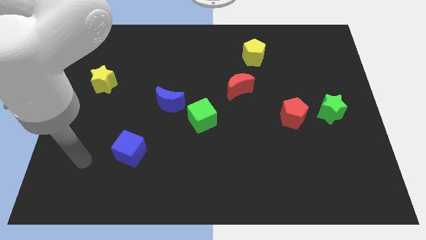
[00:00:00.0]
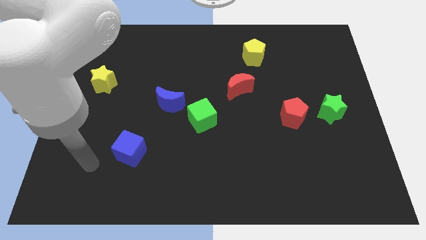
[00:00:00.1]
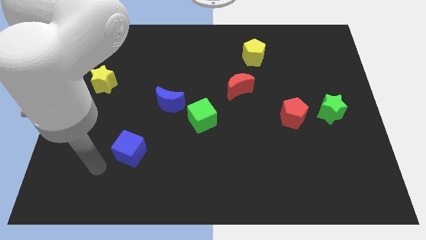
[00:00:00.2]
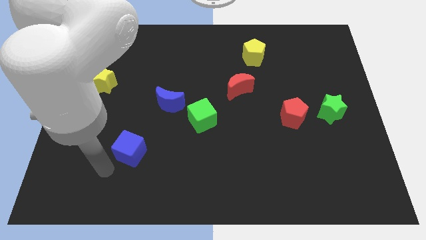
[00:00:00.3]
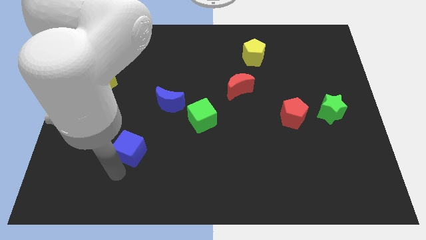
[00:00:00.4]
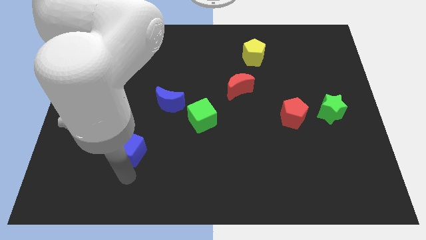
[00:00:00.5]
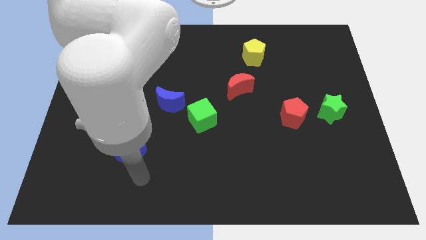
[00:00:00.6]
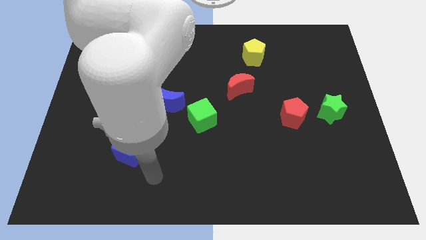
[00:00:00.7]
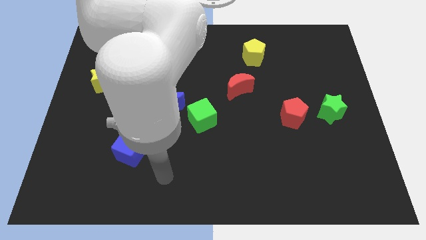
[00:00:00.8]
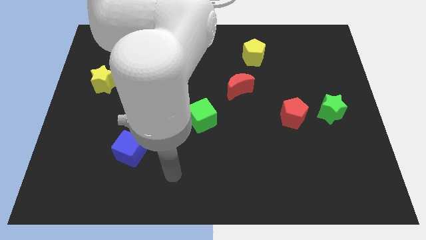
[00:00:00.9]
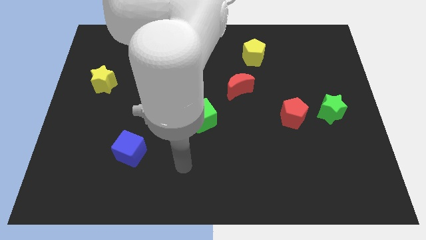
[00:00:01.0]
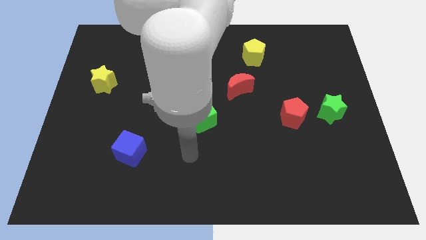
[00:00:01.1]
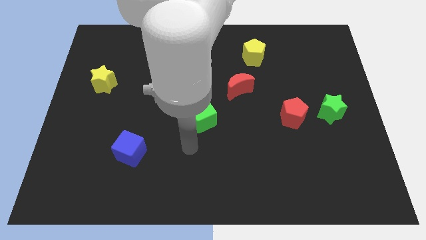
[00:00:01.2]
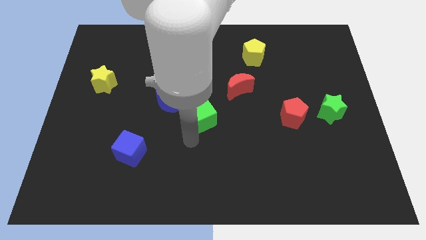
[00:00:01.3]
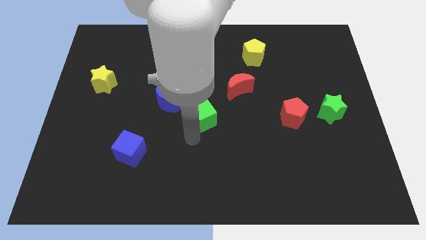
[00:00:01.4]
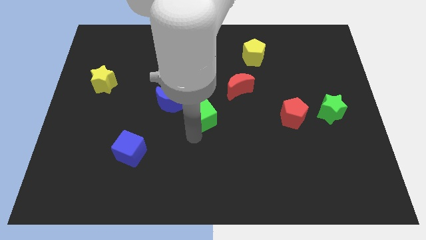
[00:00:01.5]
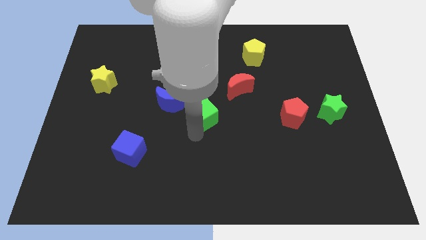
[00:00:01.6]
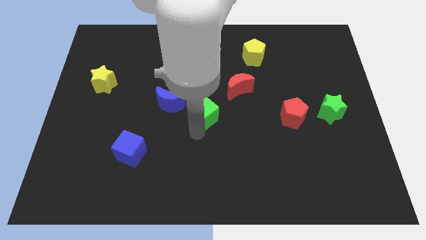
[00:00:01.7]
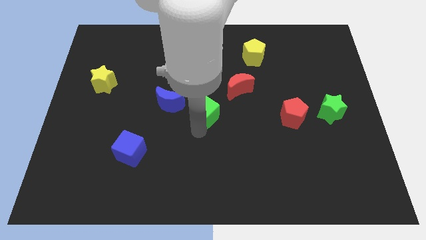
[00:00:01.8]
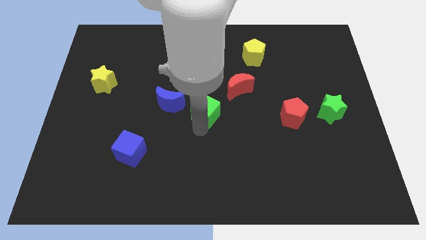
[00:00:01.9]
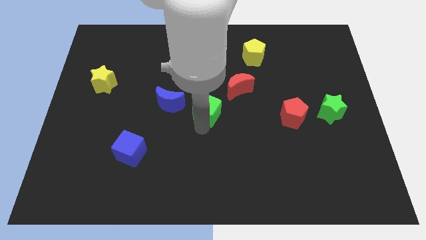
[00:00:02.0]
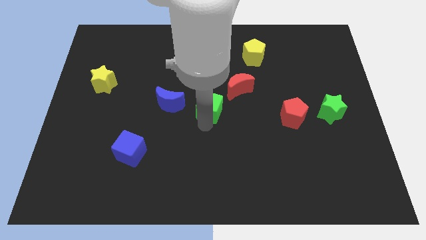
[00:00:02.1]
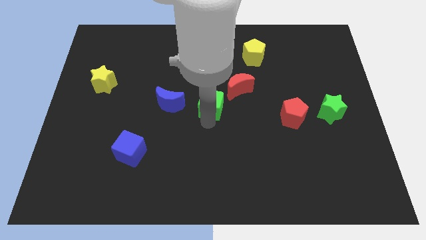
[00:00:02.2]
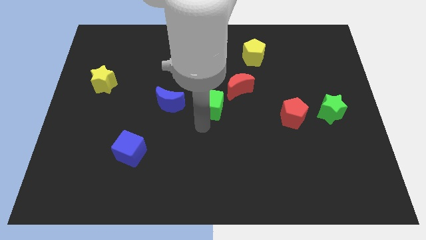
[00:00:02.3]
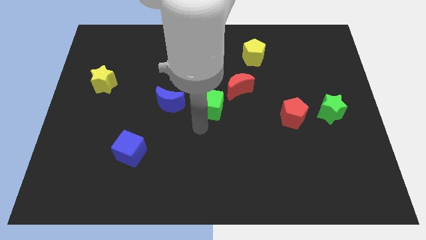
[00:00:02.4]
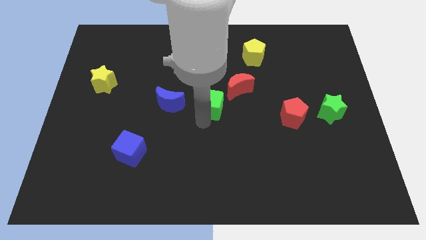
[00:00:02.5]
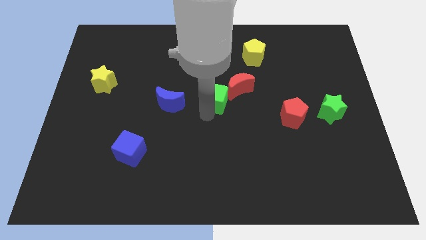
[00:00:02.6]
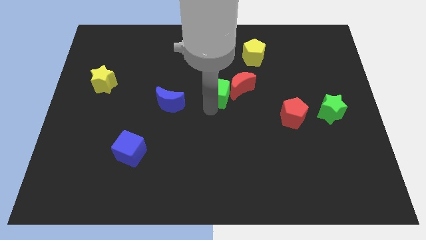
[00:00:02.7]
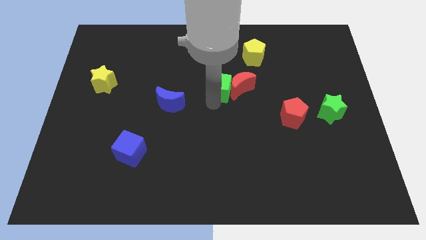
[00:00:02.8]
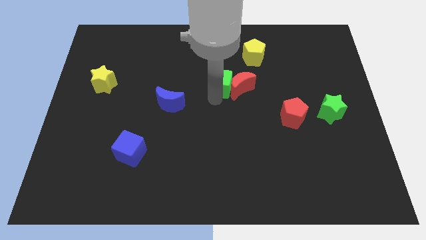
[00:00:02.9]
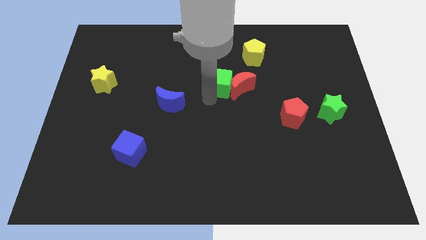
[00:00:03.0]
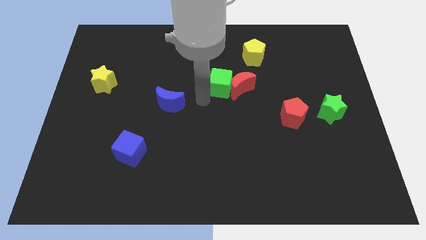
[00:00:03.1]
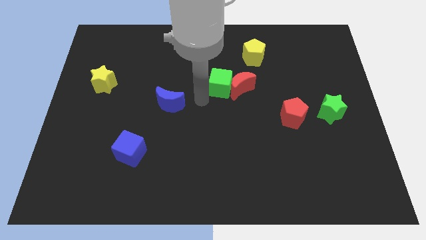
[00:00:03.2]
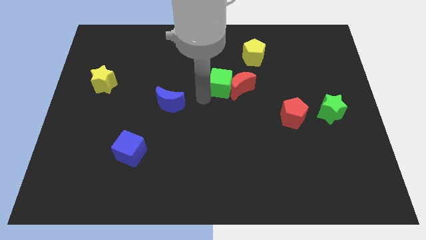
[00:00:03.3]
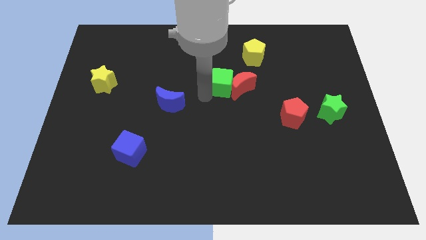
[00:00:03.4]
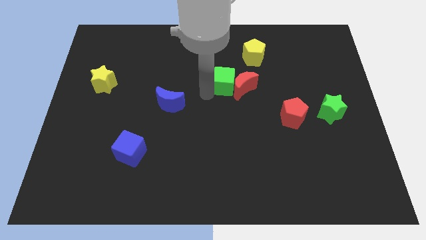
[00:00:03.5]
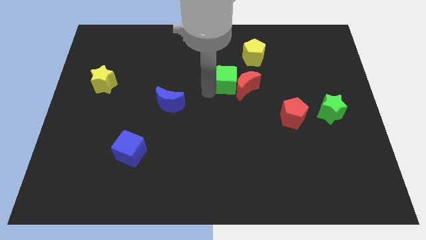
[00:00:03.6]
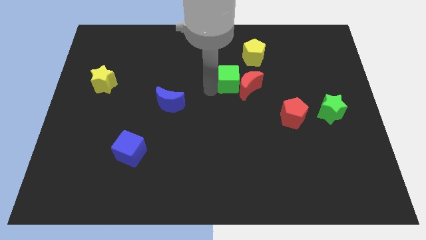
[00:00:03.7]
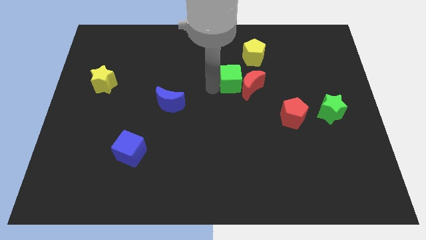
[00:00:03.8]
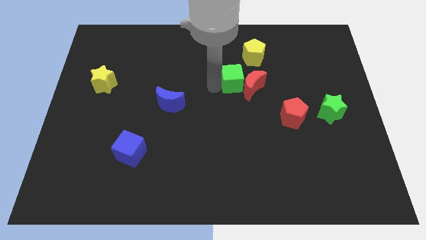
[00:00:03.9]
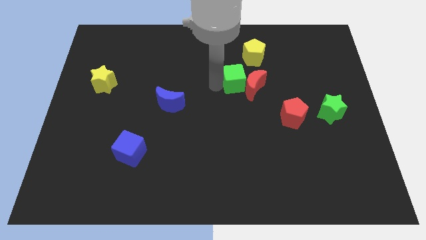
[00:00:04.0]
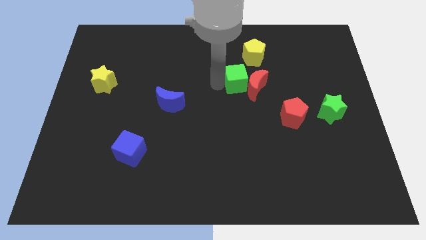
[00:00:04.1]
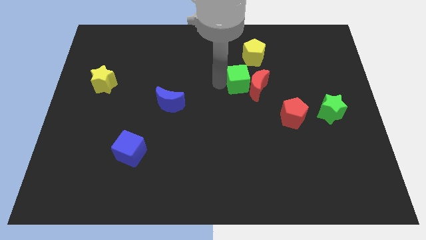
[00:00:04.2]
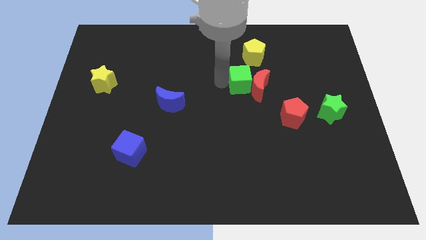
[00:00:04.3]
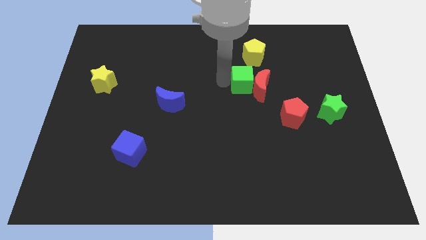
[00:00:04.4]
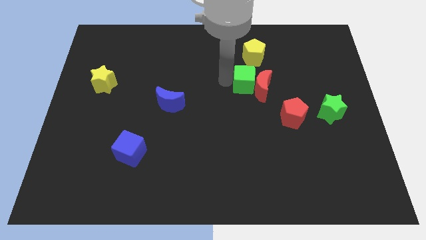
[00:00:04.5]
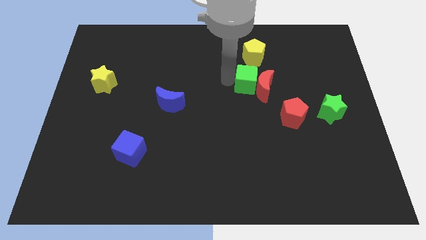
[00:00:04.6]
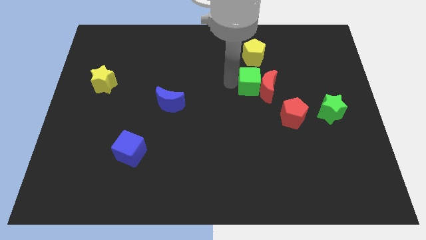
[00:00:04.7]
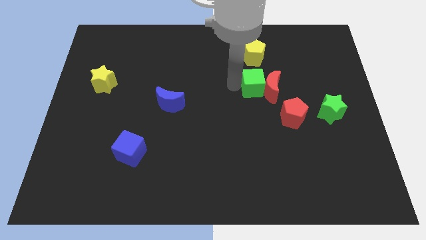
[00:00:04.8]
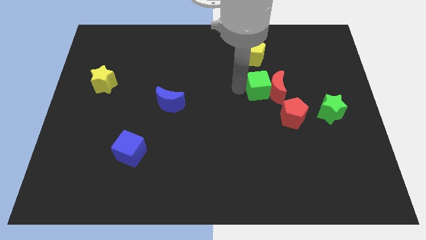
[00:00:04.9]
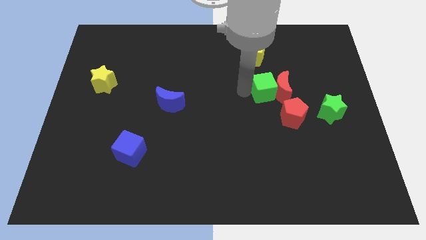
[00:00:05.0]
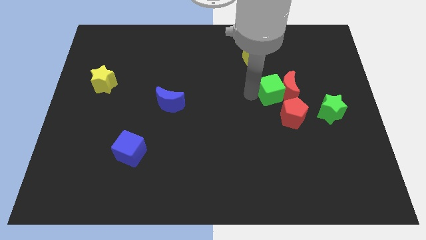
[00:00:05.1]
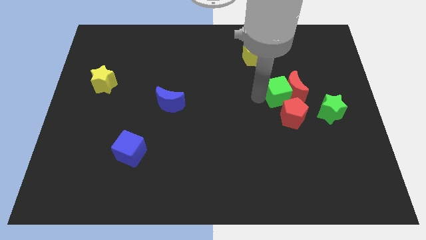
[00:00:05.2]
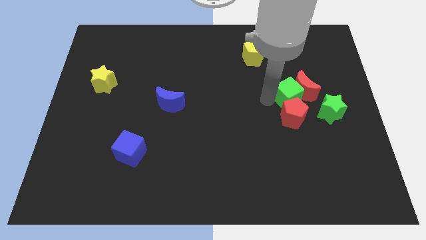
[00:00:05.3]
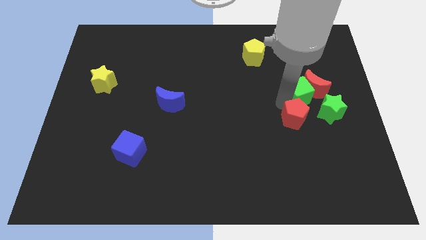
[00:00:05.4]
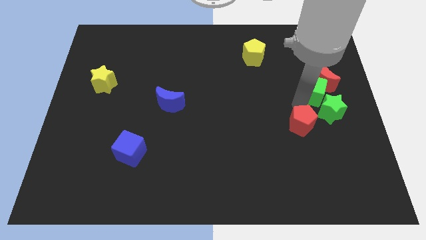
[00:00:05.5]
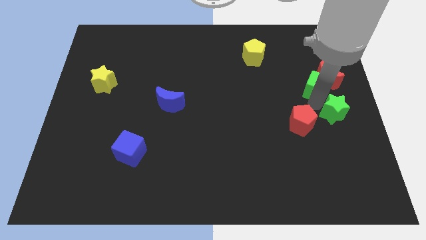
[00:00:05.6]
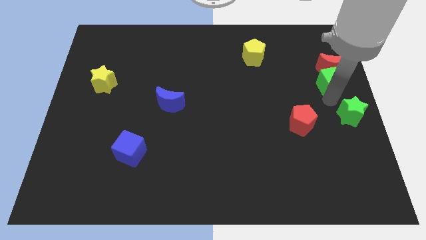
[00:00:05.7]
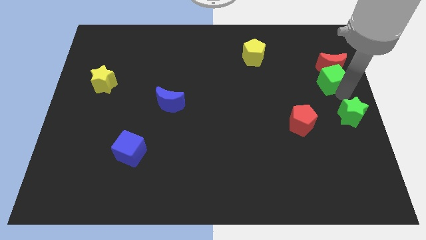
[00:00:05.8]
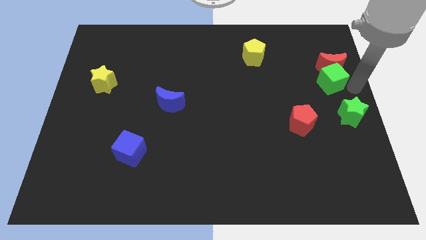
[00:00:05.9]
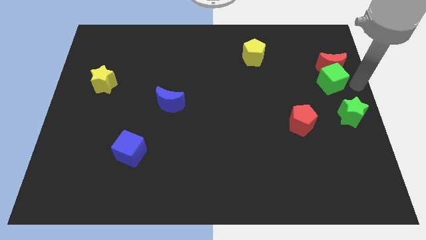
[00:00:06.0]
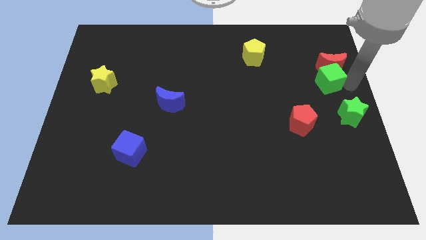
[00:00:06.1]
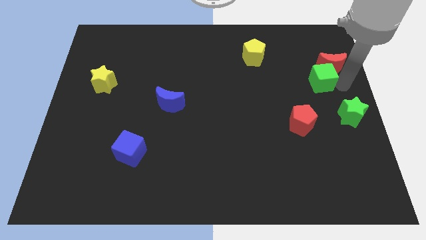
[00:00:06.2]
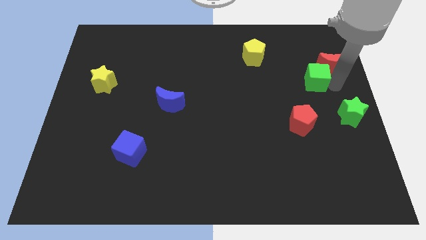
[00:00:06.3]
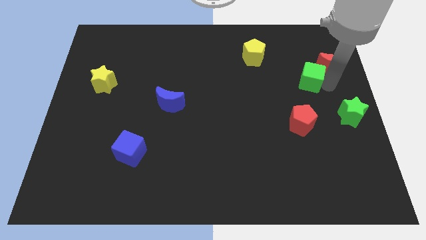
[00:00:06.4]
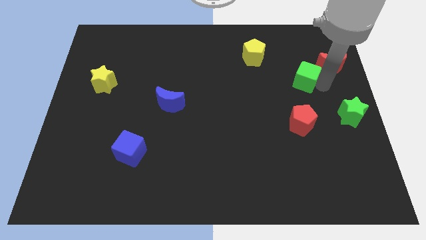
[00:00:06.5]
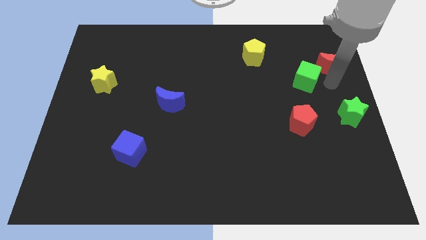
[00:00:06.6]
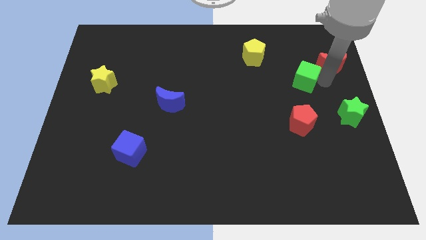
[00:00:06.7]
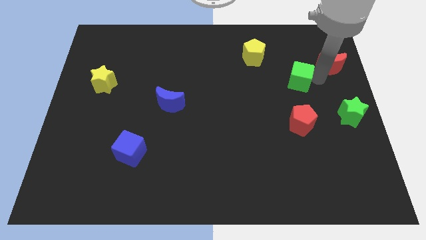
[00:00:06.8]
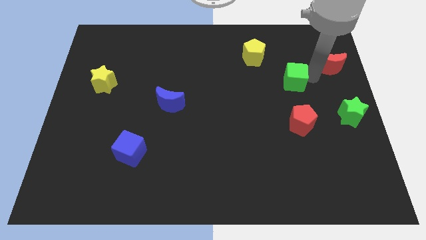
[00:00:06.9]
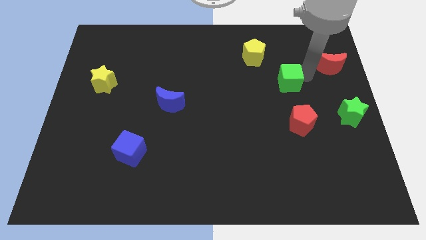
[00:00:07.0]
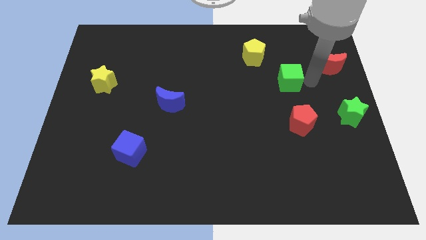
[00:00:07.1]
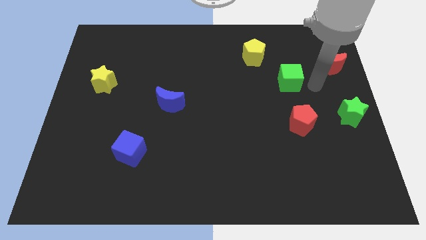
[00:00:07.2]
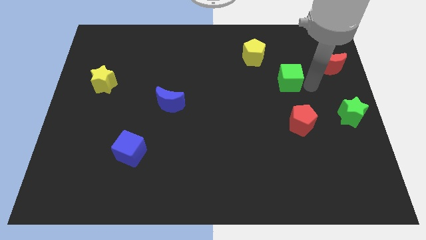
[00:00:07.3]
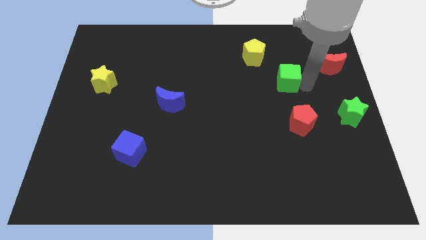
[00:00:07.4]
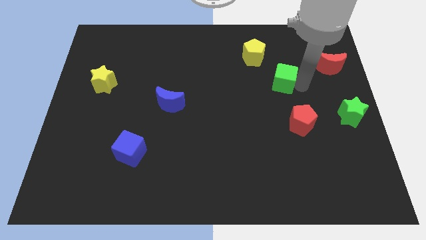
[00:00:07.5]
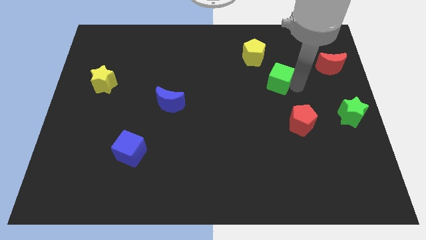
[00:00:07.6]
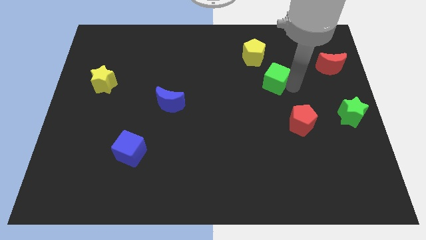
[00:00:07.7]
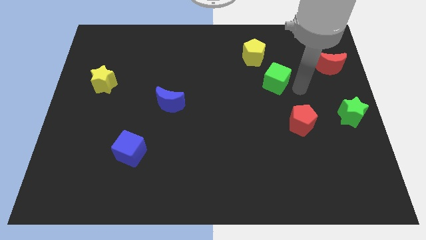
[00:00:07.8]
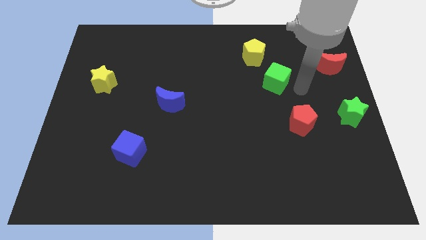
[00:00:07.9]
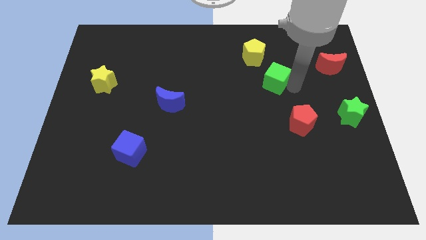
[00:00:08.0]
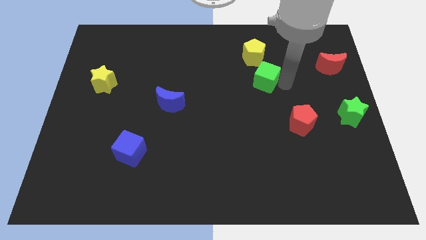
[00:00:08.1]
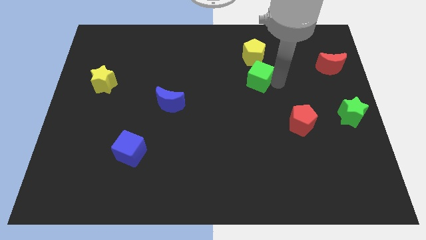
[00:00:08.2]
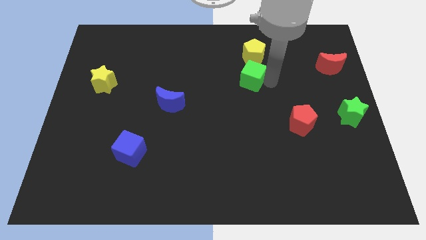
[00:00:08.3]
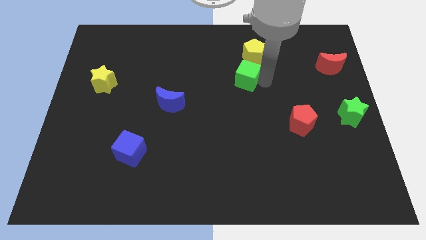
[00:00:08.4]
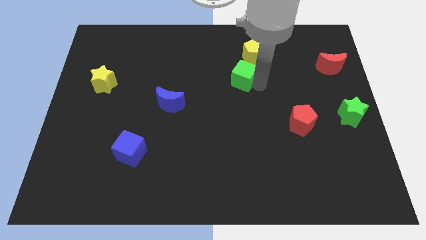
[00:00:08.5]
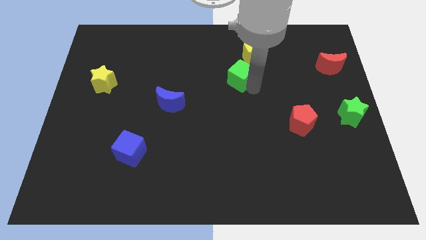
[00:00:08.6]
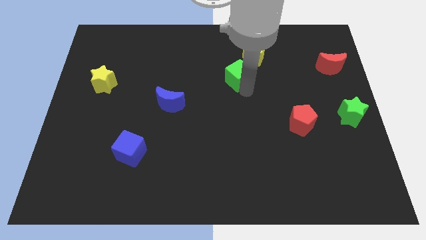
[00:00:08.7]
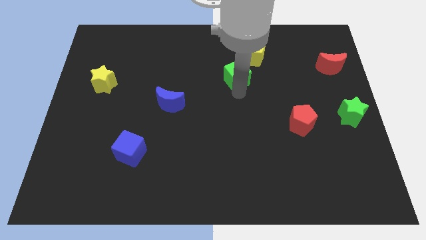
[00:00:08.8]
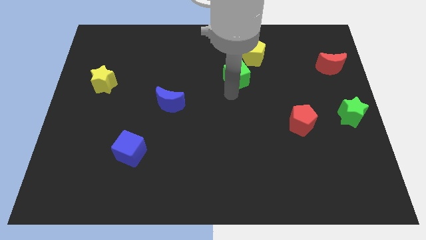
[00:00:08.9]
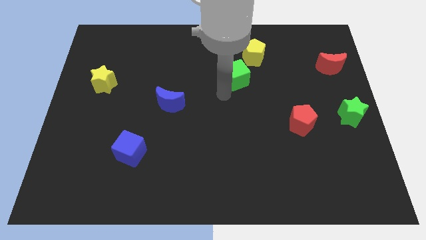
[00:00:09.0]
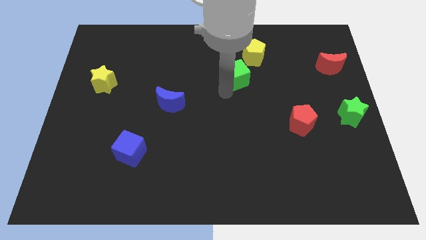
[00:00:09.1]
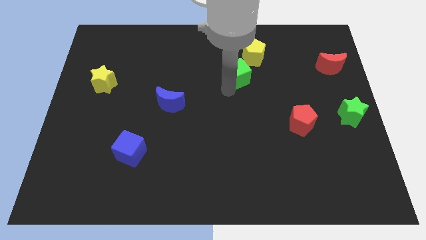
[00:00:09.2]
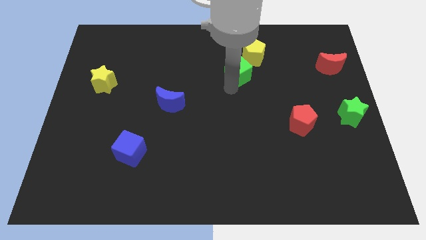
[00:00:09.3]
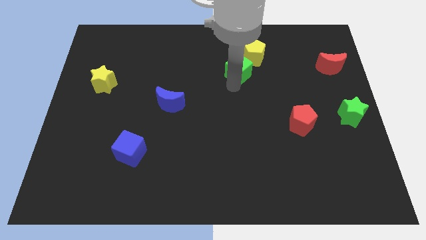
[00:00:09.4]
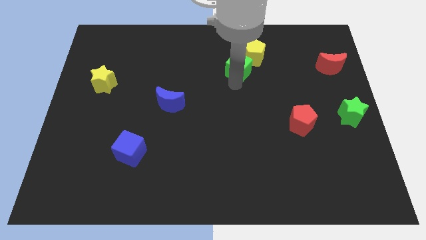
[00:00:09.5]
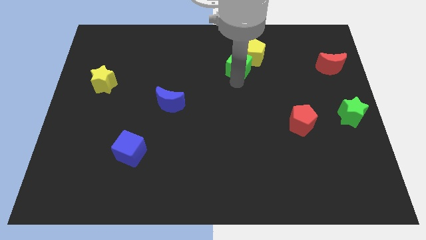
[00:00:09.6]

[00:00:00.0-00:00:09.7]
slide the green cube towards the yellow pentagon
